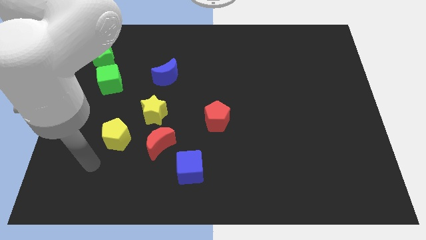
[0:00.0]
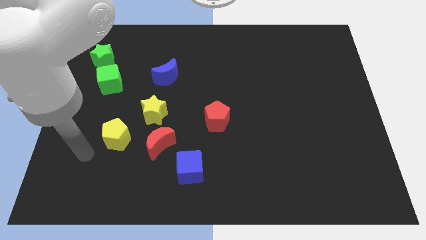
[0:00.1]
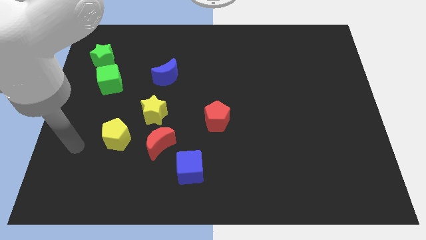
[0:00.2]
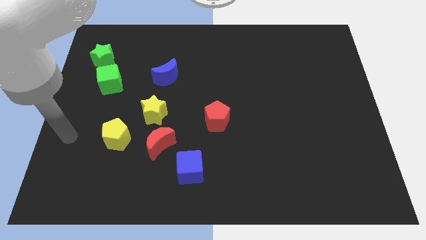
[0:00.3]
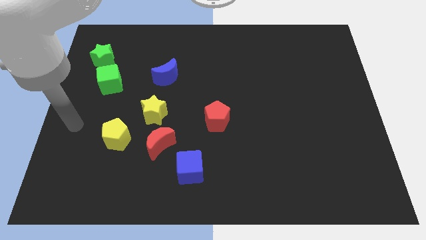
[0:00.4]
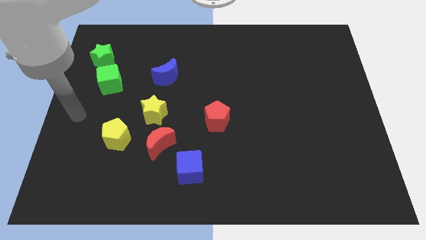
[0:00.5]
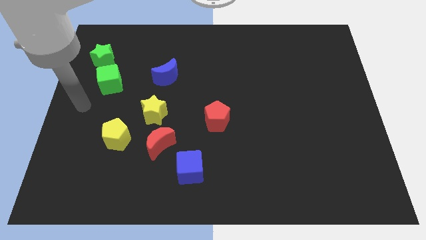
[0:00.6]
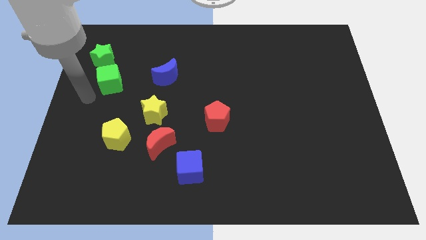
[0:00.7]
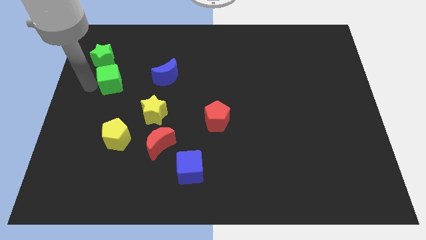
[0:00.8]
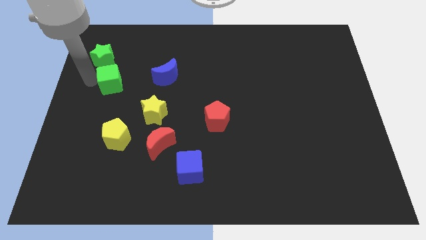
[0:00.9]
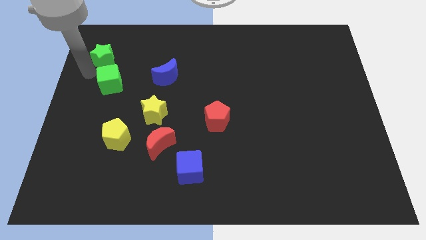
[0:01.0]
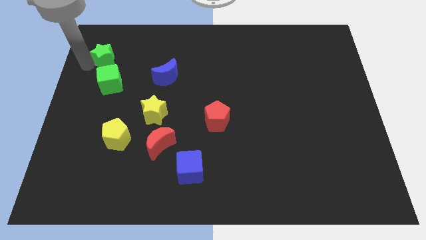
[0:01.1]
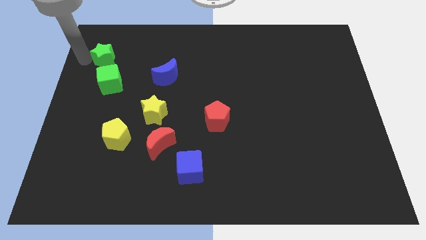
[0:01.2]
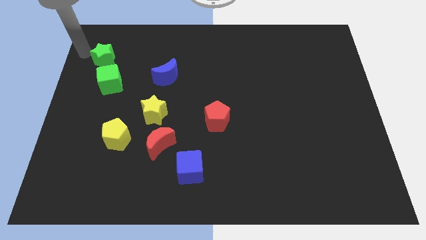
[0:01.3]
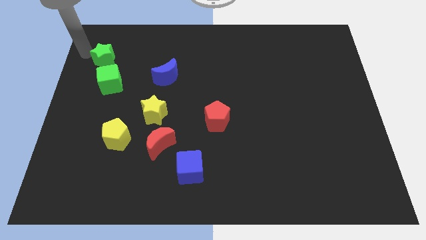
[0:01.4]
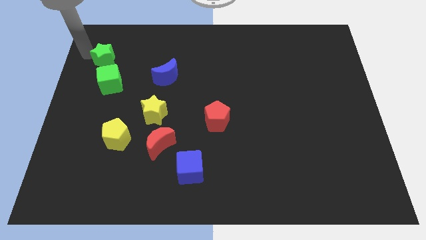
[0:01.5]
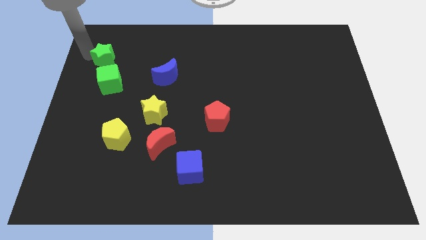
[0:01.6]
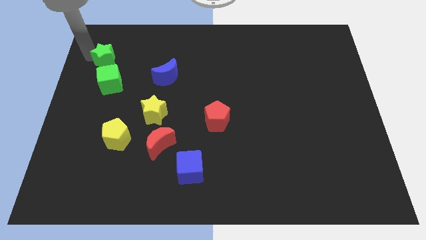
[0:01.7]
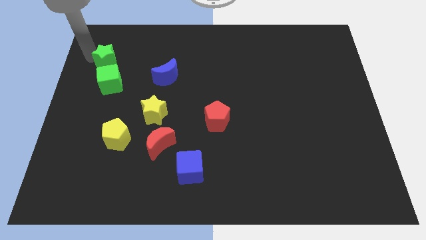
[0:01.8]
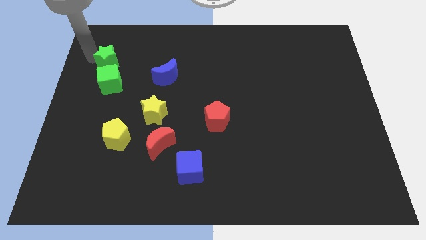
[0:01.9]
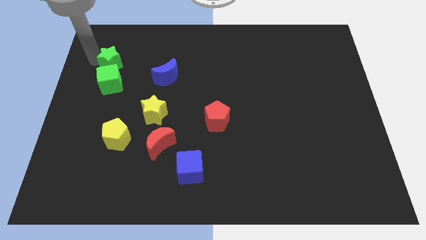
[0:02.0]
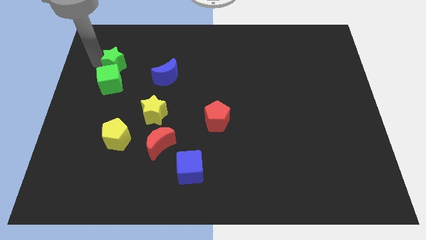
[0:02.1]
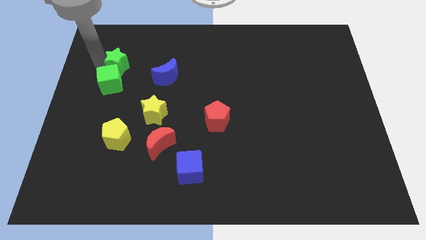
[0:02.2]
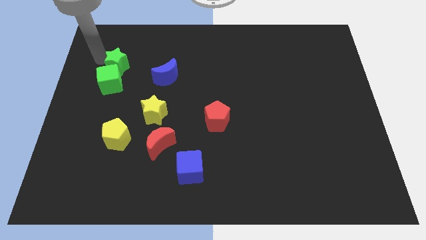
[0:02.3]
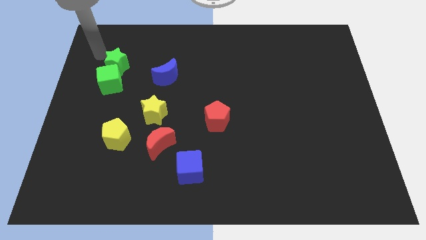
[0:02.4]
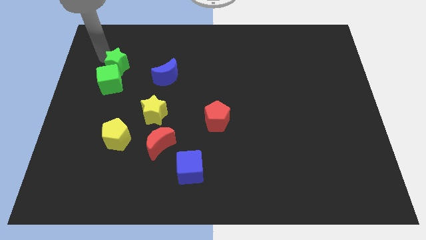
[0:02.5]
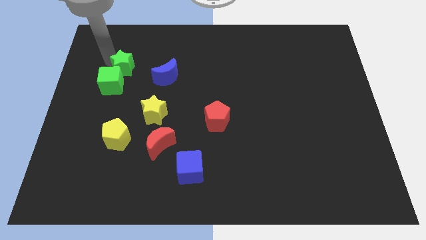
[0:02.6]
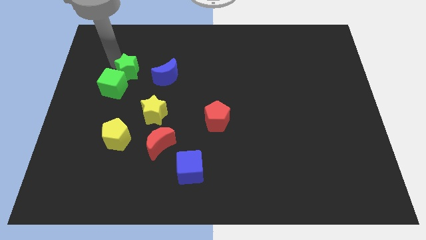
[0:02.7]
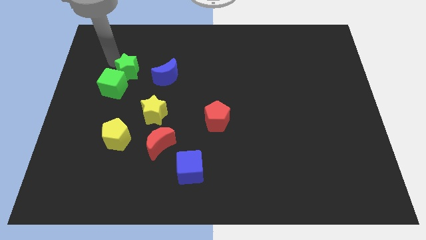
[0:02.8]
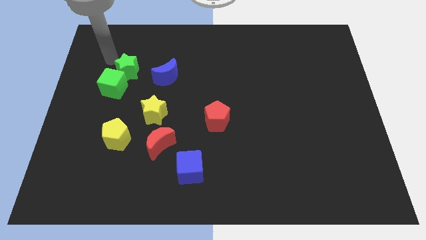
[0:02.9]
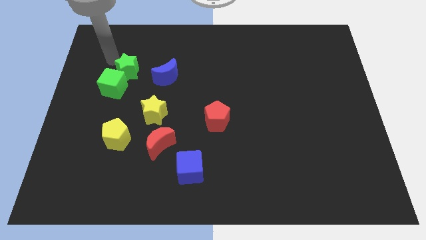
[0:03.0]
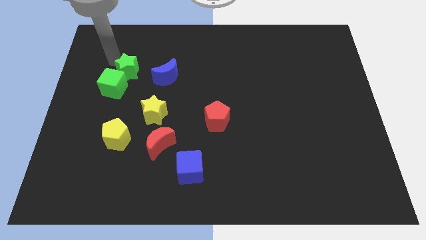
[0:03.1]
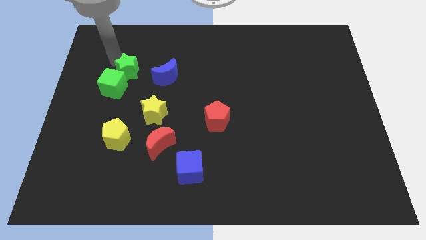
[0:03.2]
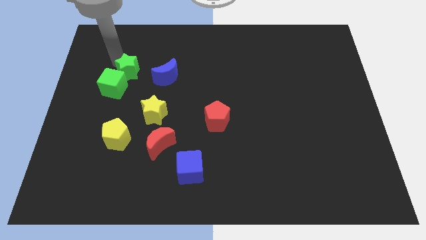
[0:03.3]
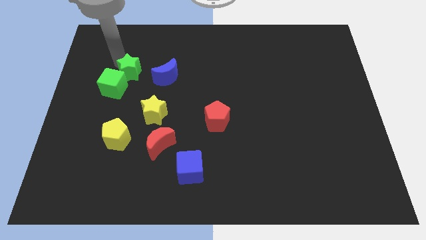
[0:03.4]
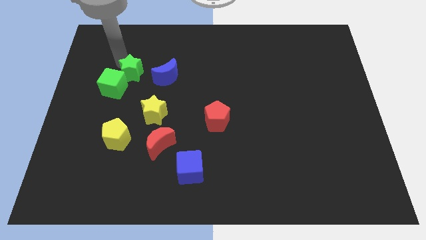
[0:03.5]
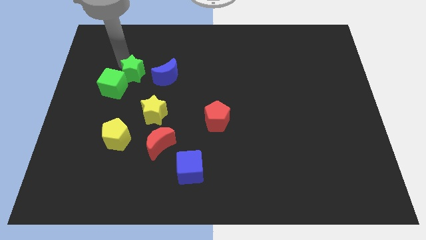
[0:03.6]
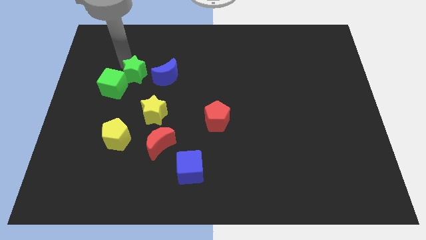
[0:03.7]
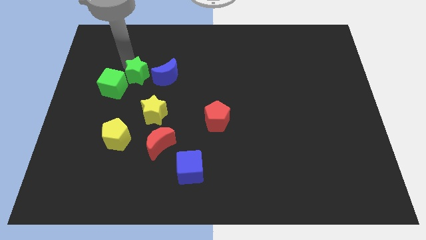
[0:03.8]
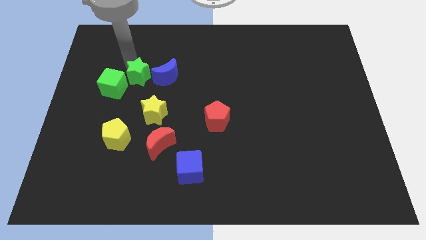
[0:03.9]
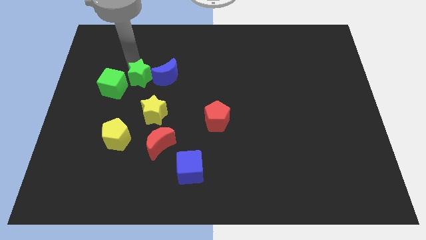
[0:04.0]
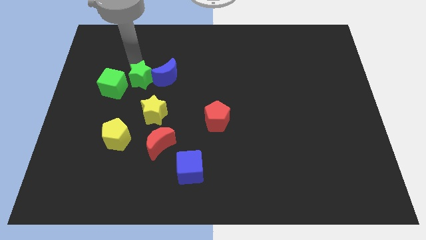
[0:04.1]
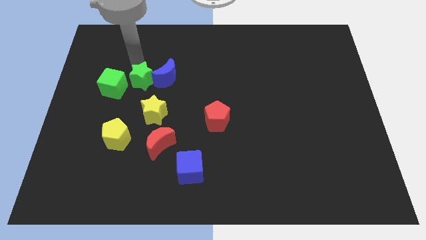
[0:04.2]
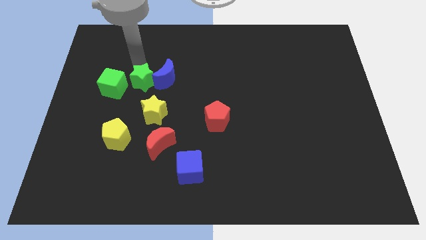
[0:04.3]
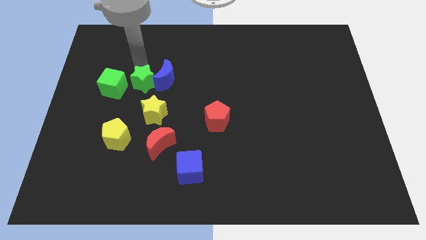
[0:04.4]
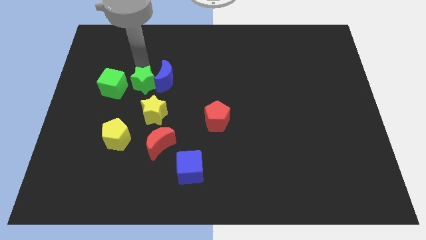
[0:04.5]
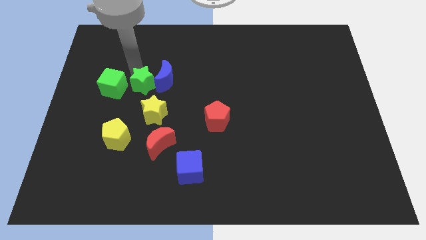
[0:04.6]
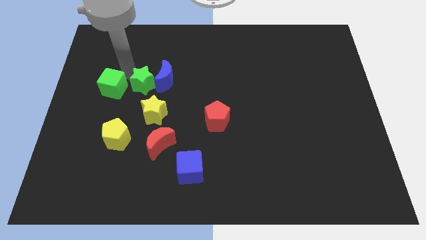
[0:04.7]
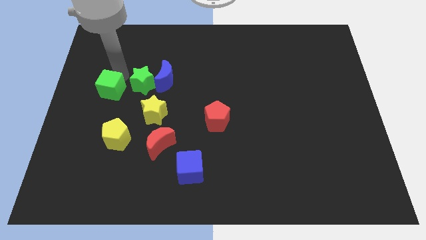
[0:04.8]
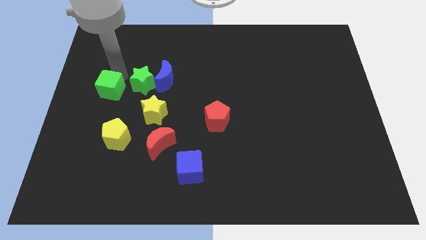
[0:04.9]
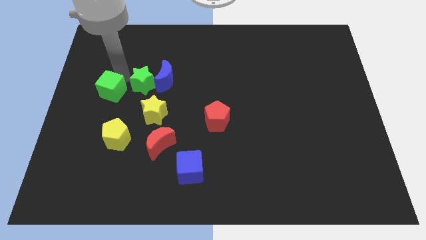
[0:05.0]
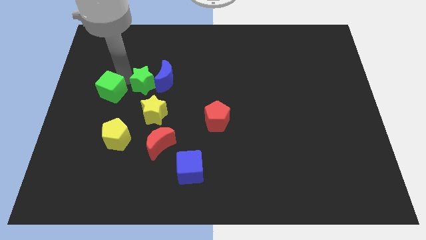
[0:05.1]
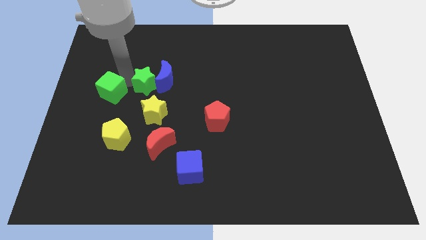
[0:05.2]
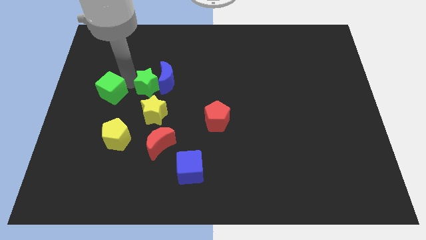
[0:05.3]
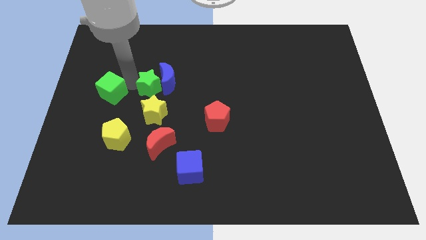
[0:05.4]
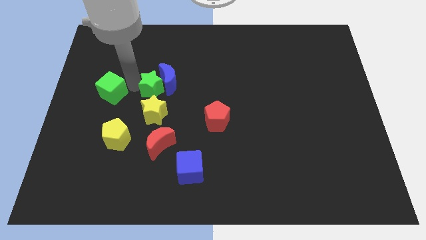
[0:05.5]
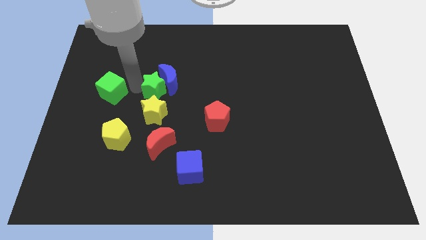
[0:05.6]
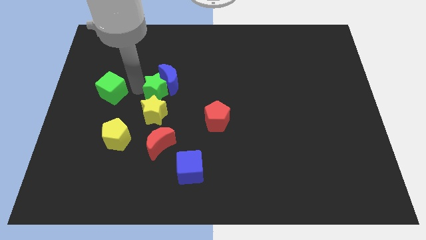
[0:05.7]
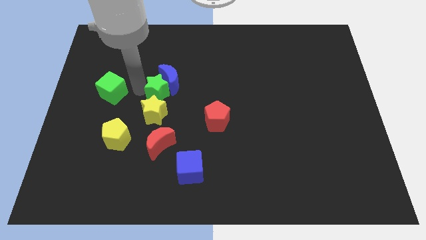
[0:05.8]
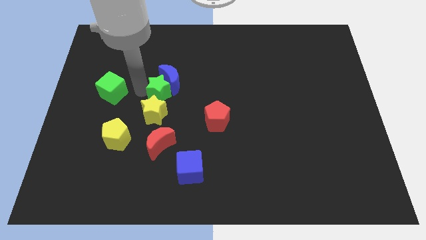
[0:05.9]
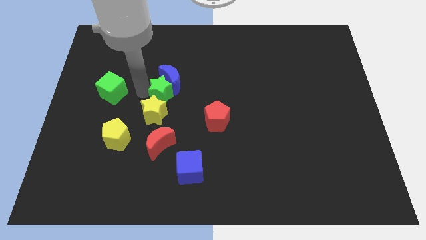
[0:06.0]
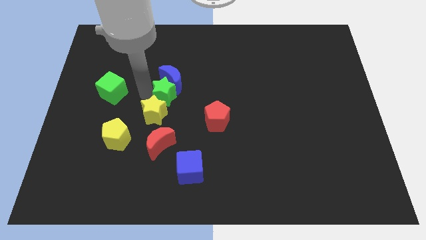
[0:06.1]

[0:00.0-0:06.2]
move the green star to the bottom right of the blue moon

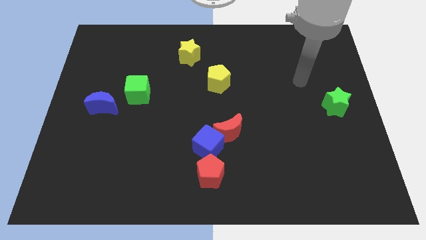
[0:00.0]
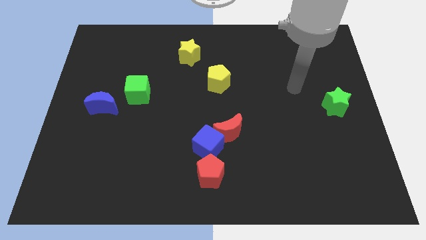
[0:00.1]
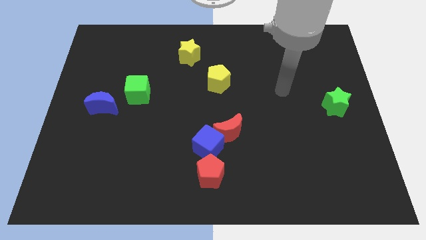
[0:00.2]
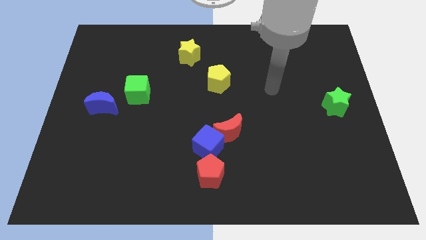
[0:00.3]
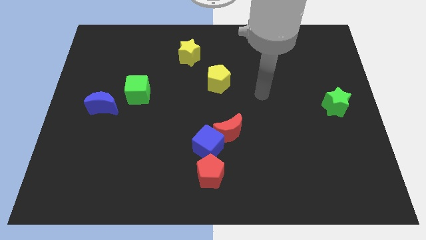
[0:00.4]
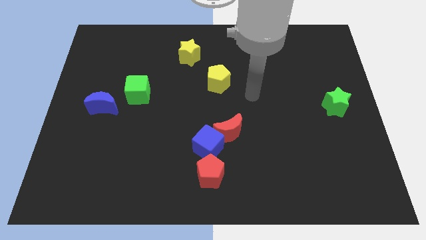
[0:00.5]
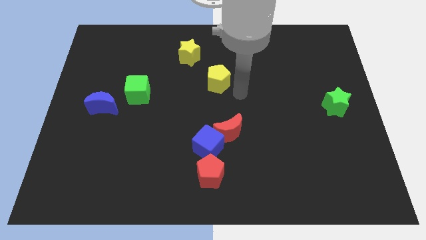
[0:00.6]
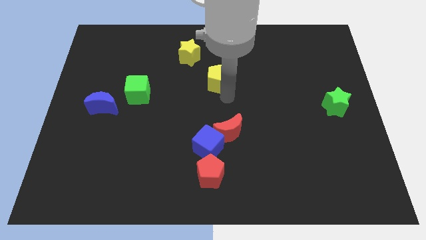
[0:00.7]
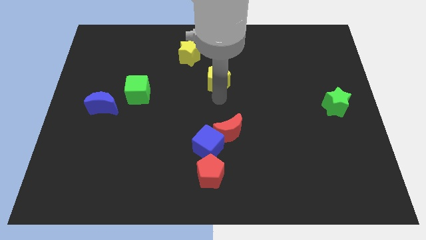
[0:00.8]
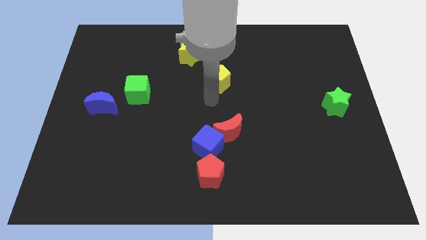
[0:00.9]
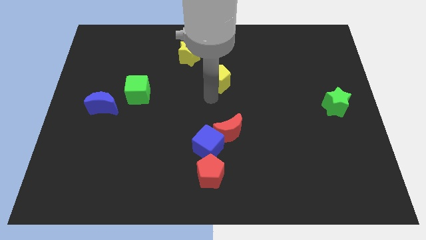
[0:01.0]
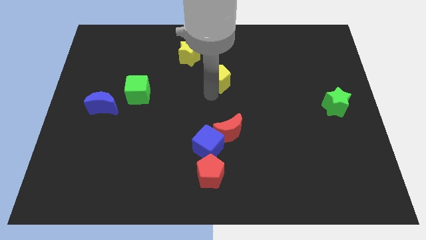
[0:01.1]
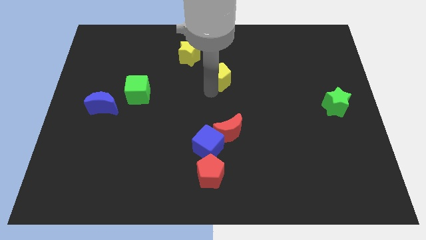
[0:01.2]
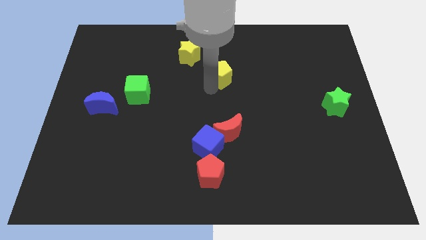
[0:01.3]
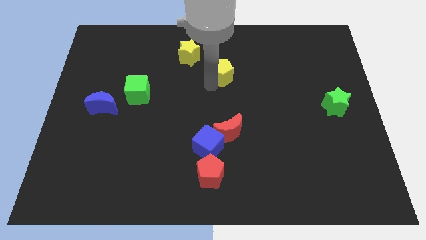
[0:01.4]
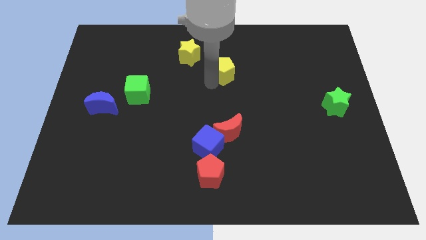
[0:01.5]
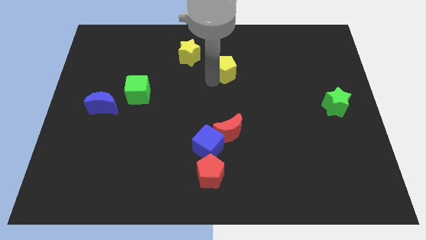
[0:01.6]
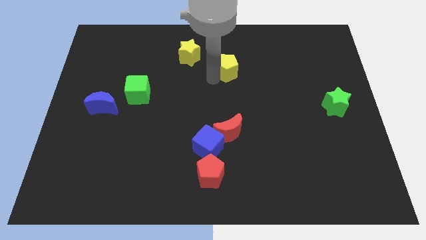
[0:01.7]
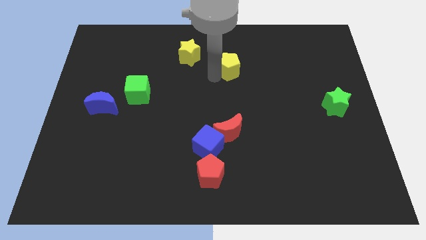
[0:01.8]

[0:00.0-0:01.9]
put the yellow pentagon to the right of the yellow star
